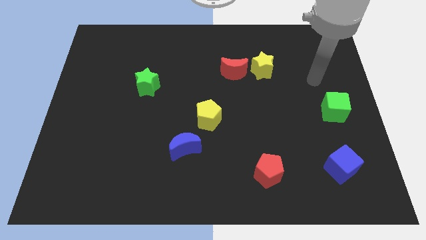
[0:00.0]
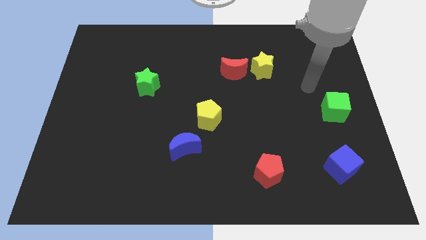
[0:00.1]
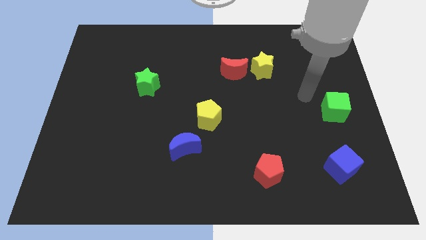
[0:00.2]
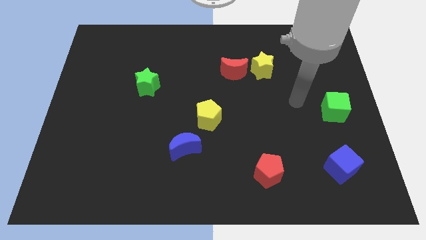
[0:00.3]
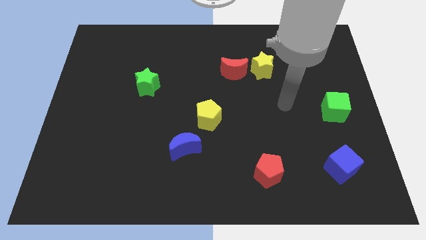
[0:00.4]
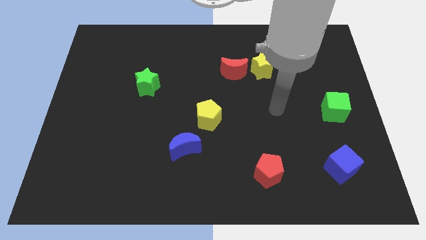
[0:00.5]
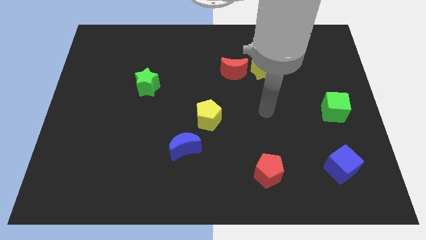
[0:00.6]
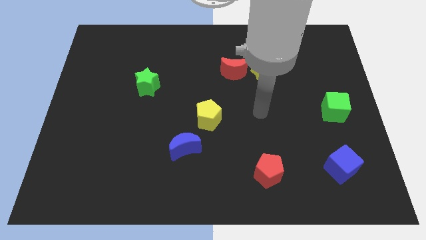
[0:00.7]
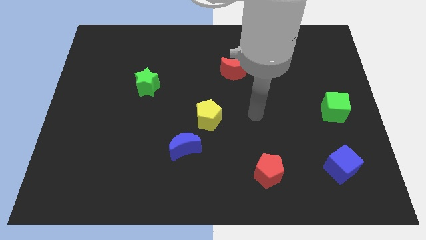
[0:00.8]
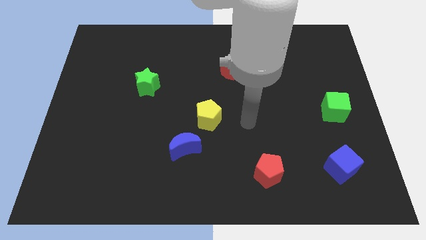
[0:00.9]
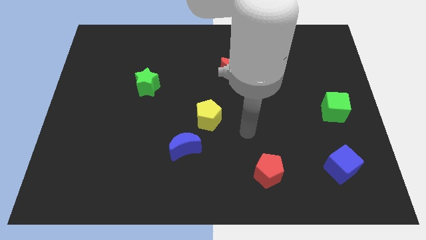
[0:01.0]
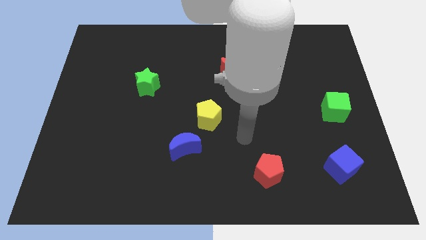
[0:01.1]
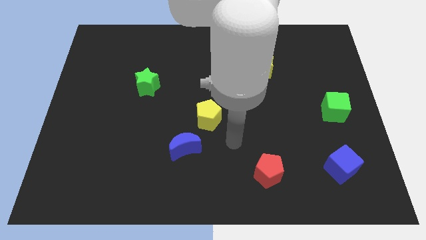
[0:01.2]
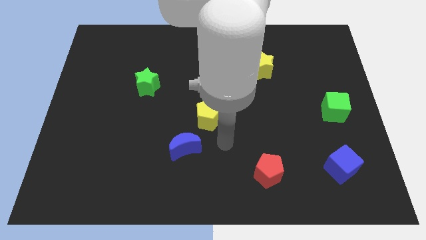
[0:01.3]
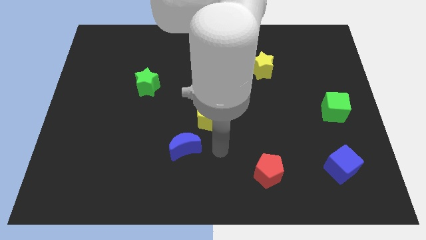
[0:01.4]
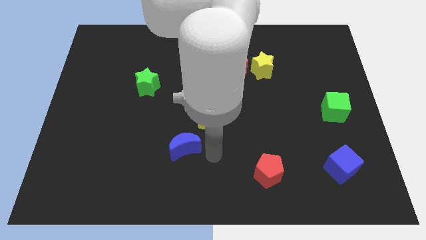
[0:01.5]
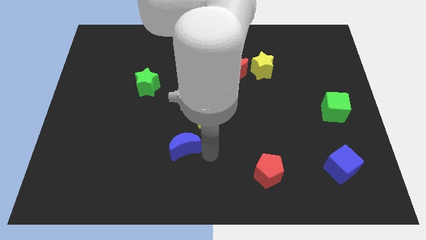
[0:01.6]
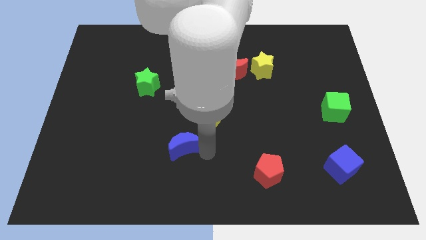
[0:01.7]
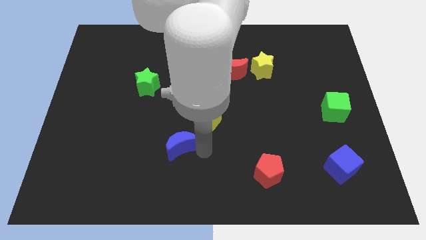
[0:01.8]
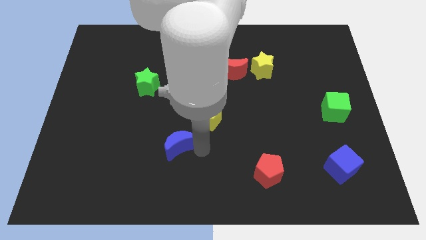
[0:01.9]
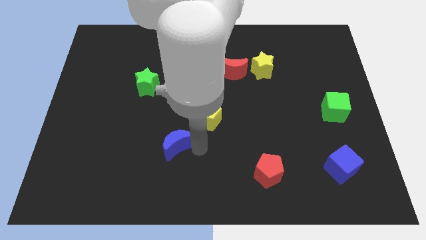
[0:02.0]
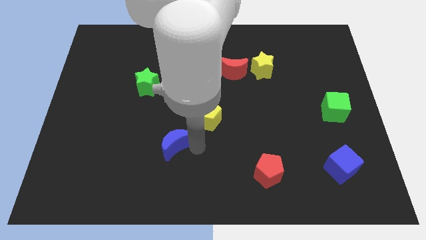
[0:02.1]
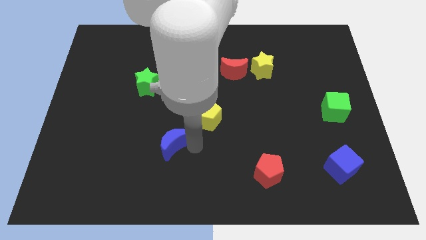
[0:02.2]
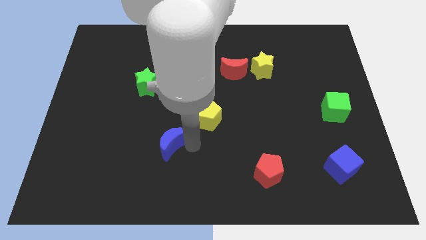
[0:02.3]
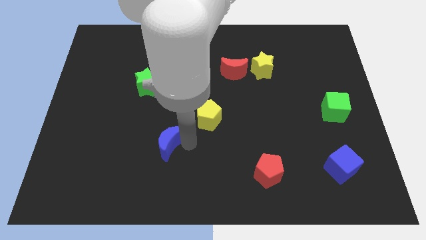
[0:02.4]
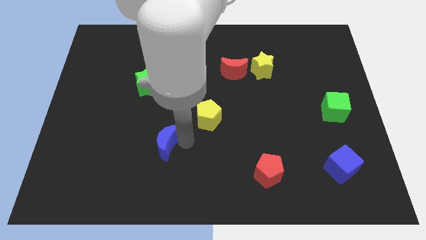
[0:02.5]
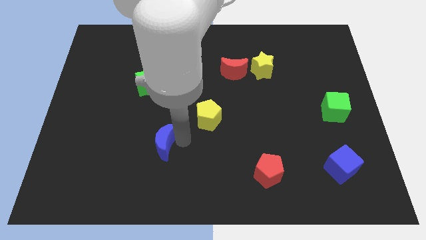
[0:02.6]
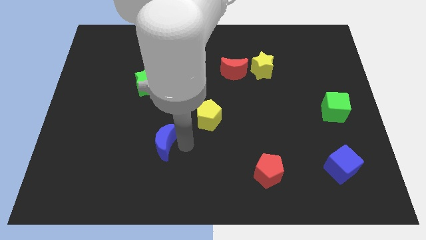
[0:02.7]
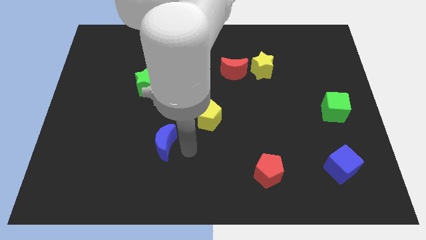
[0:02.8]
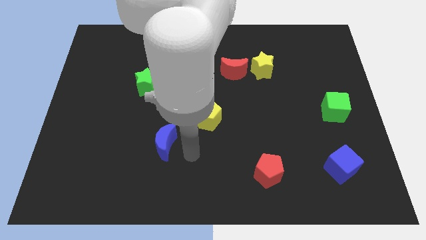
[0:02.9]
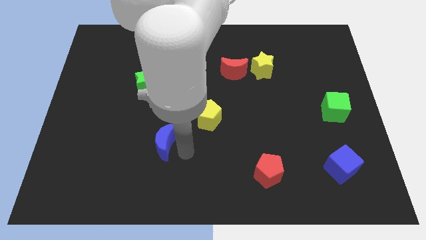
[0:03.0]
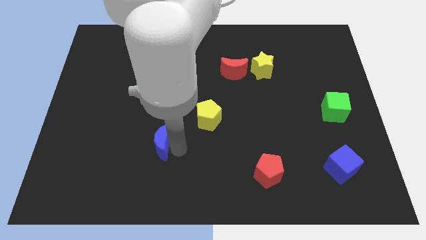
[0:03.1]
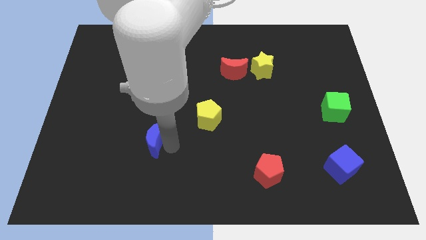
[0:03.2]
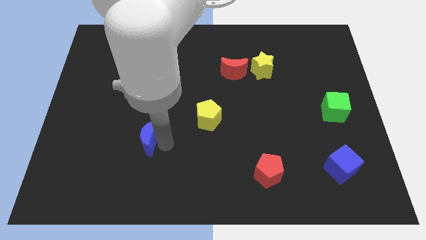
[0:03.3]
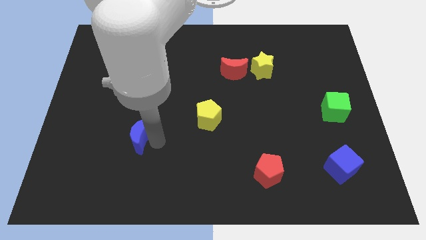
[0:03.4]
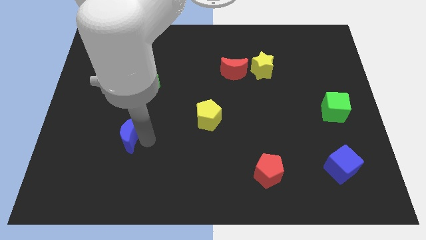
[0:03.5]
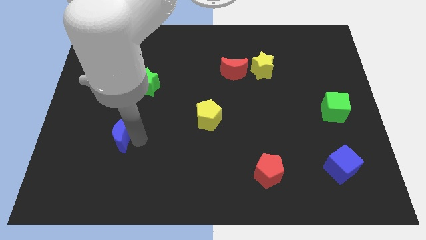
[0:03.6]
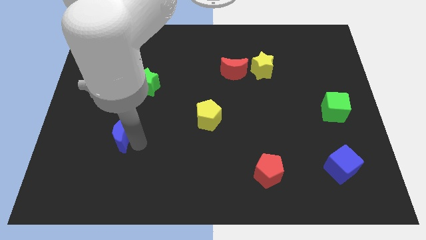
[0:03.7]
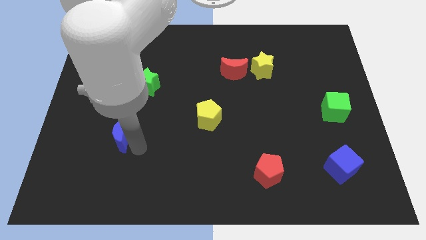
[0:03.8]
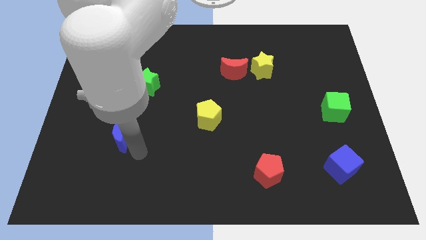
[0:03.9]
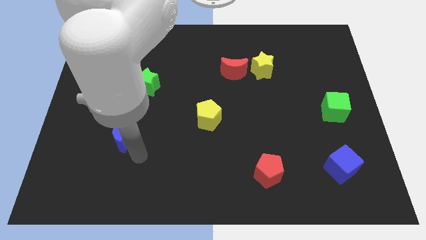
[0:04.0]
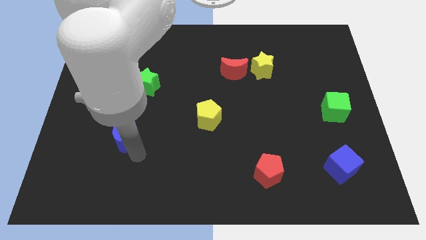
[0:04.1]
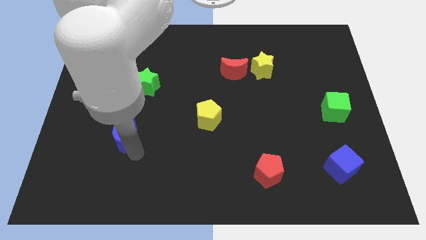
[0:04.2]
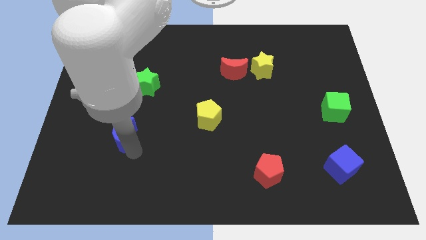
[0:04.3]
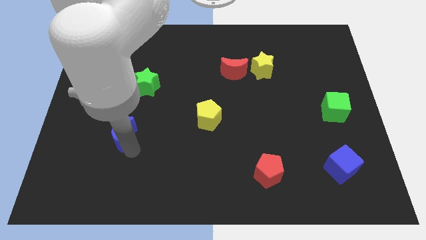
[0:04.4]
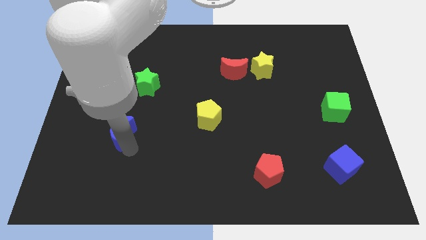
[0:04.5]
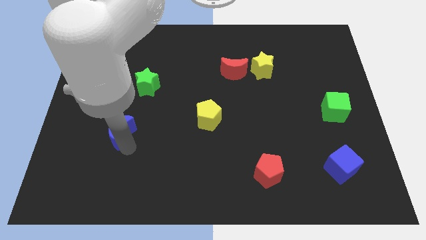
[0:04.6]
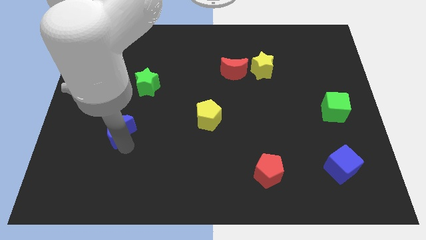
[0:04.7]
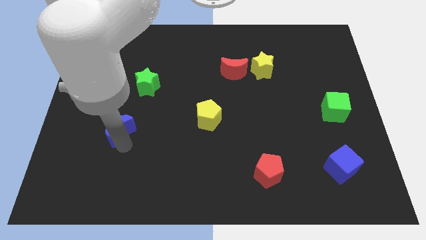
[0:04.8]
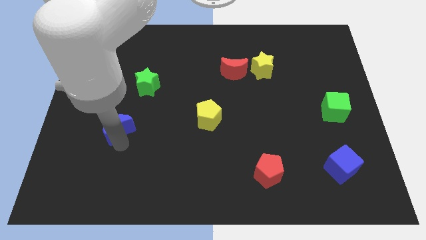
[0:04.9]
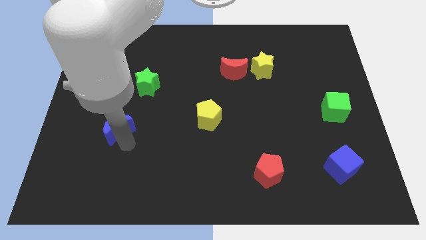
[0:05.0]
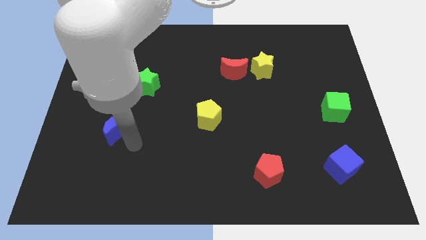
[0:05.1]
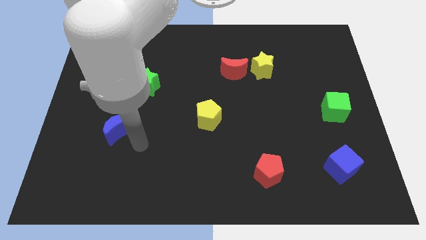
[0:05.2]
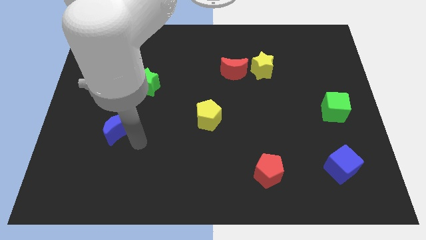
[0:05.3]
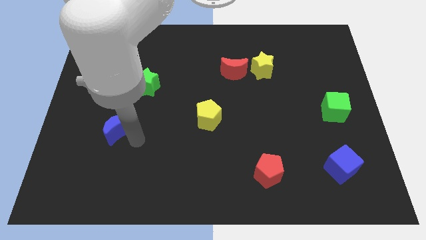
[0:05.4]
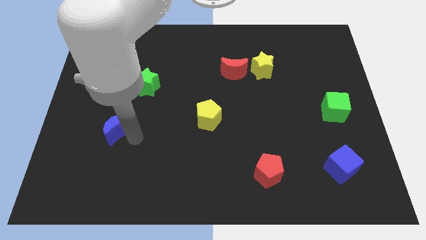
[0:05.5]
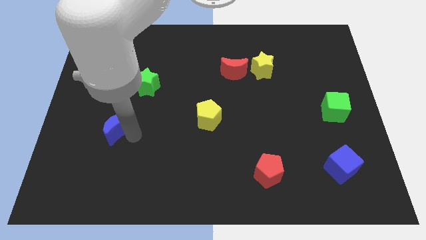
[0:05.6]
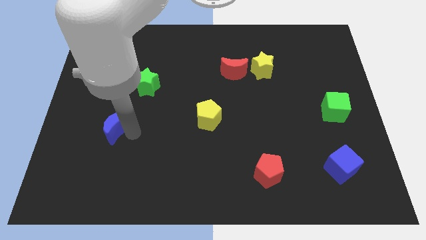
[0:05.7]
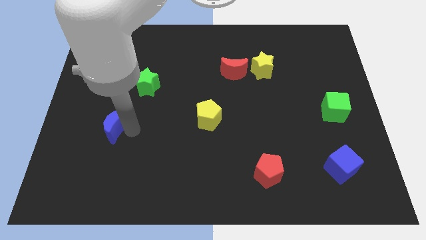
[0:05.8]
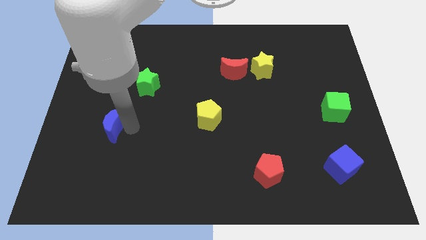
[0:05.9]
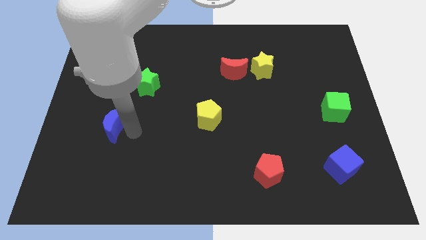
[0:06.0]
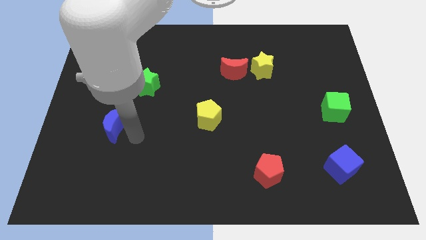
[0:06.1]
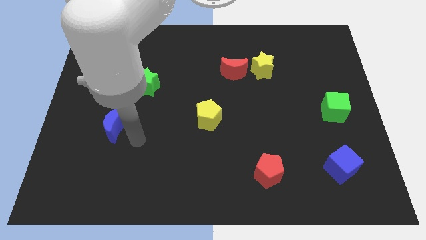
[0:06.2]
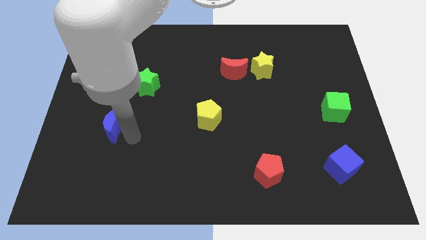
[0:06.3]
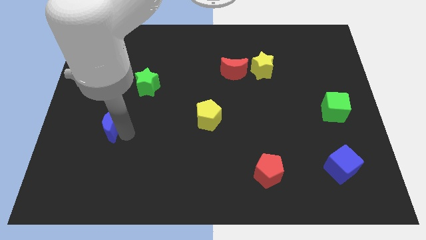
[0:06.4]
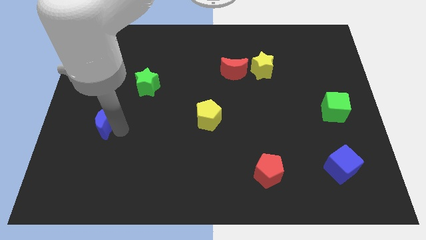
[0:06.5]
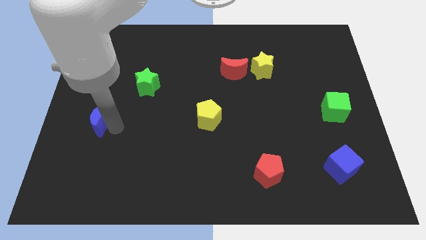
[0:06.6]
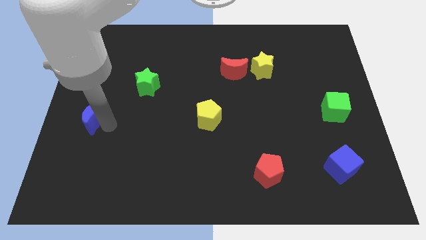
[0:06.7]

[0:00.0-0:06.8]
move the blue moon to the center left
